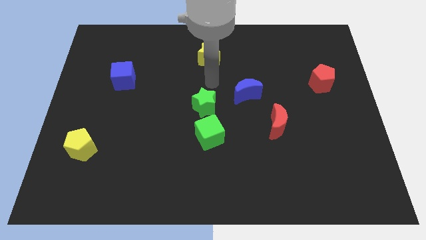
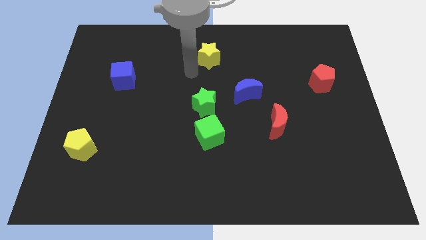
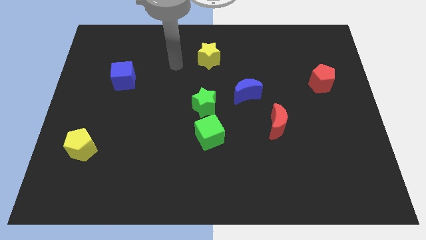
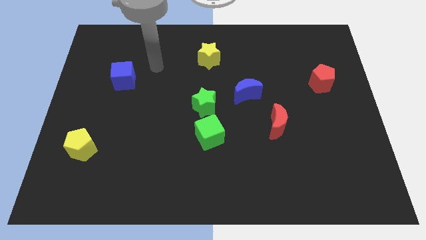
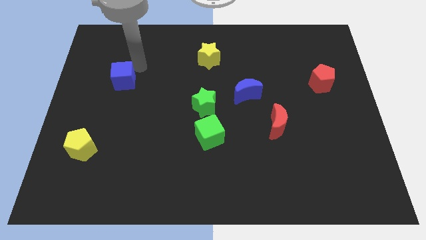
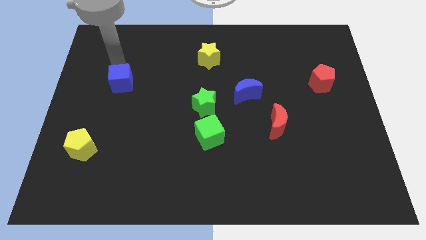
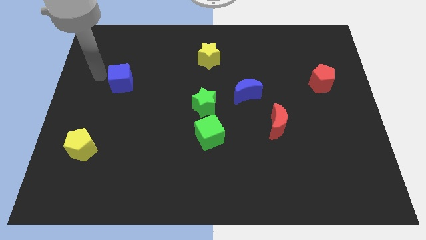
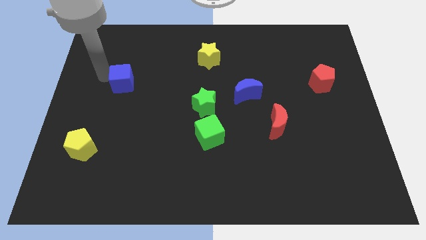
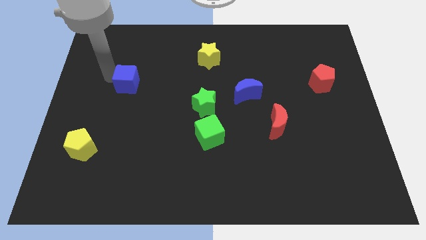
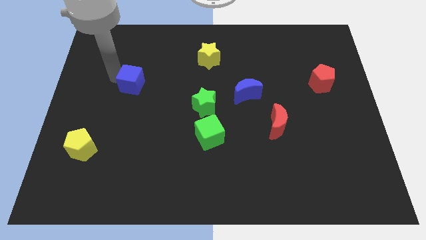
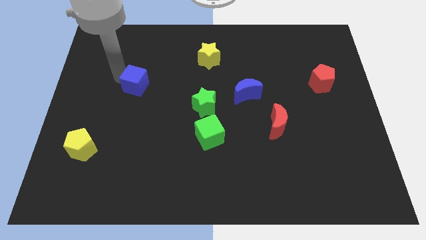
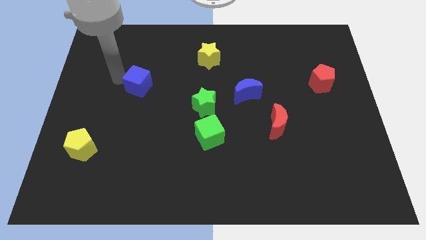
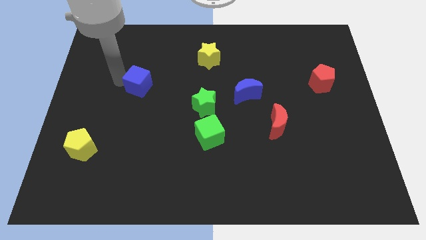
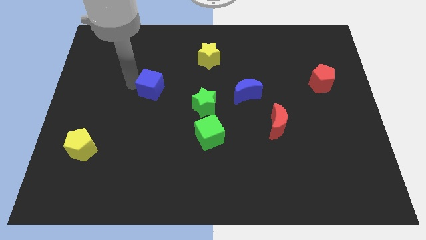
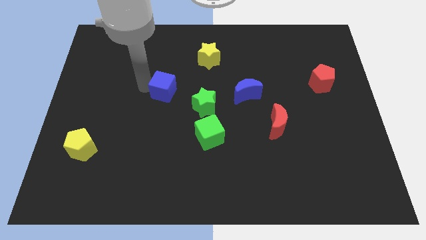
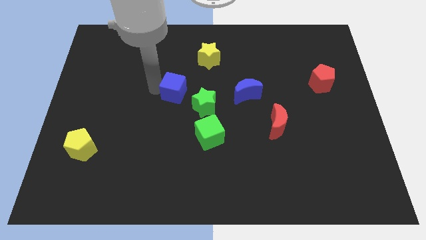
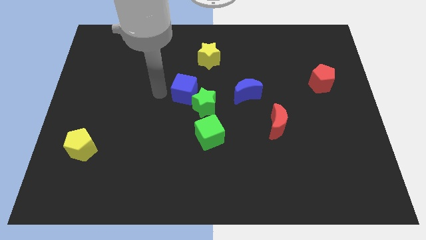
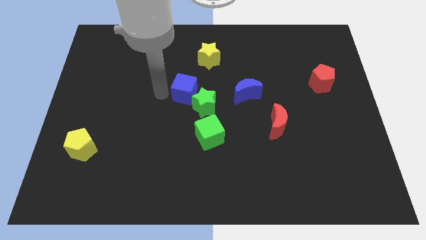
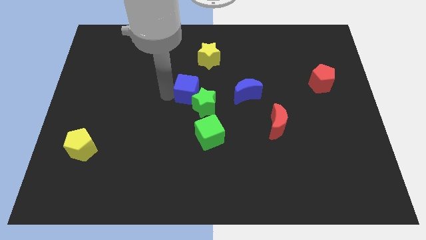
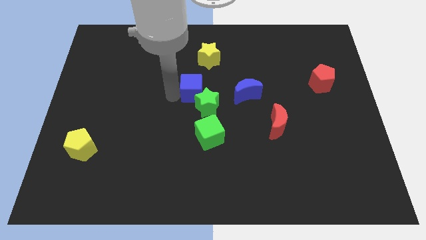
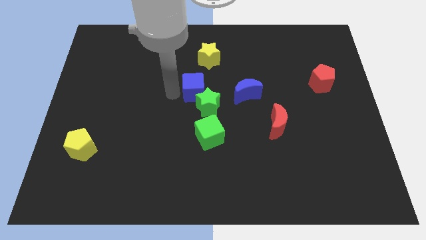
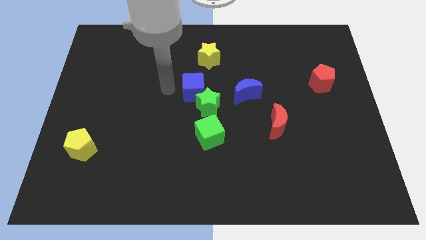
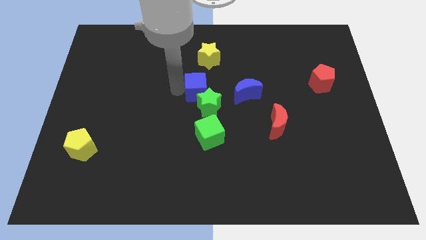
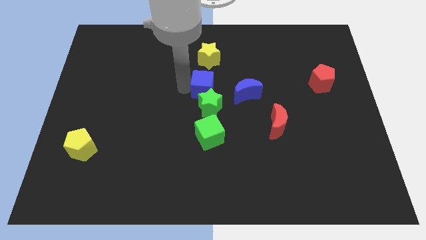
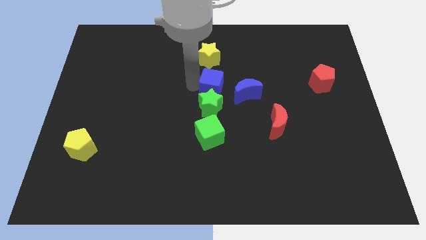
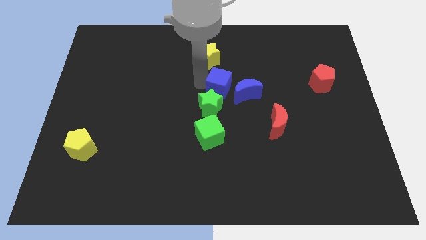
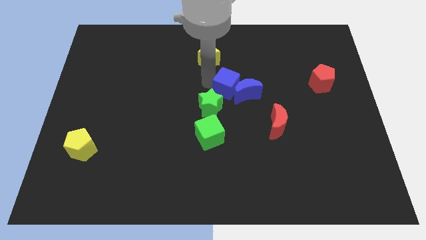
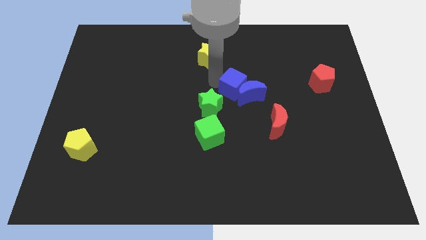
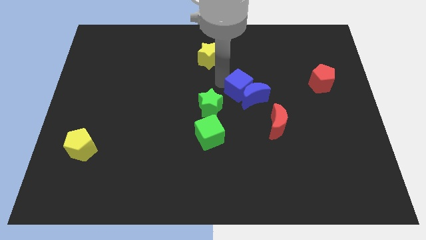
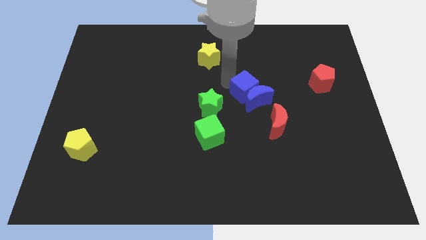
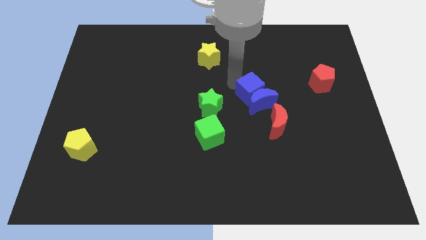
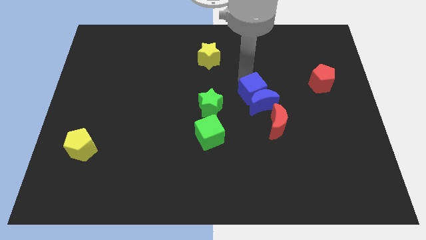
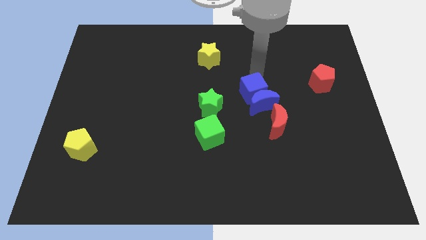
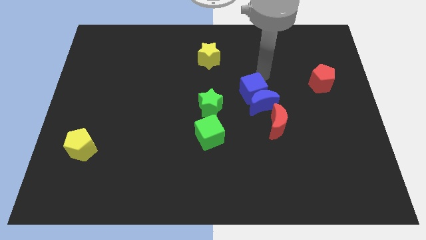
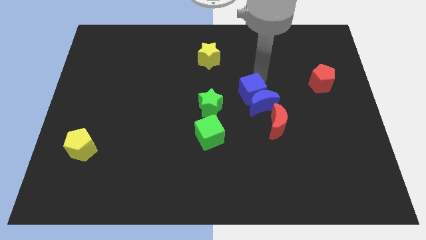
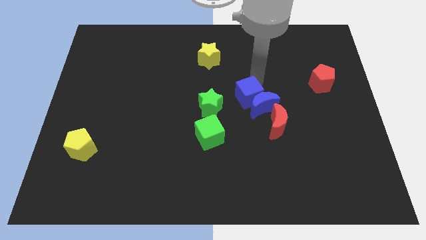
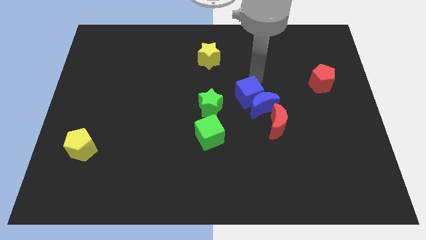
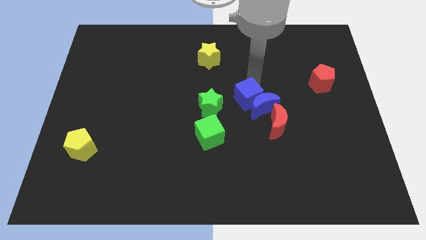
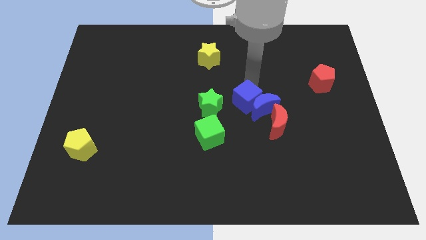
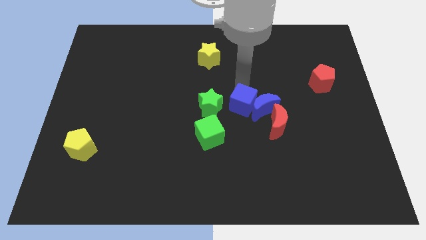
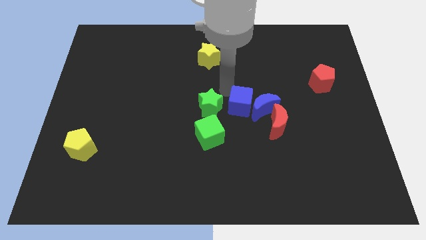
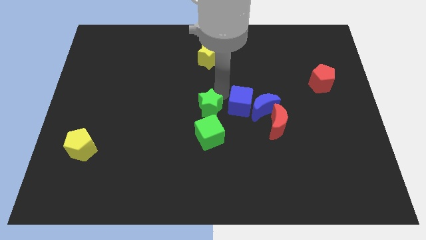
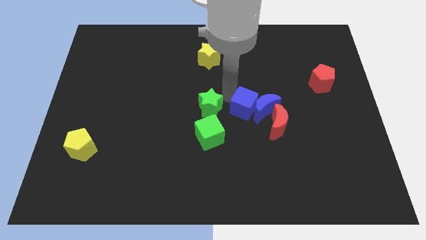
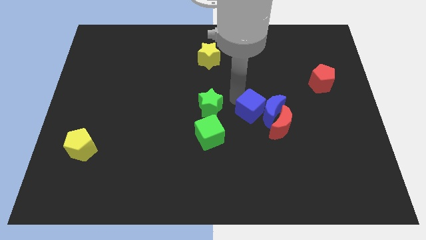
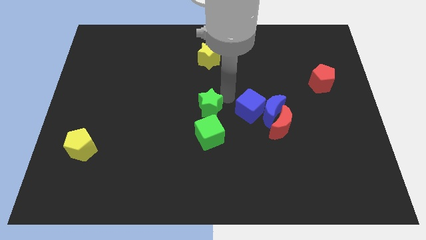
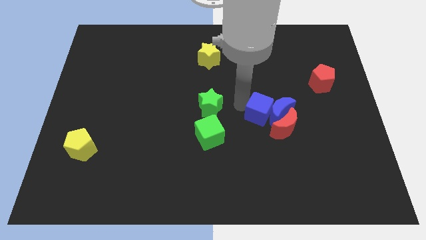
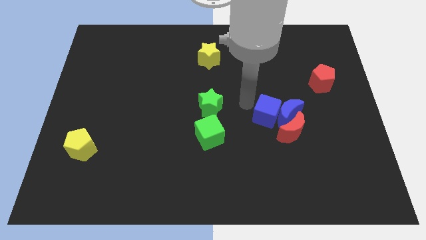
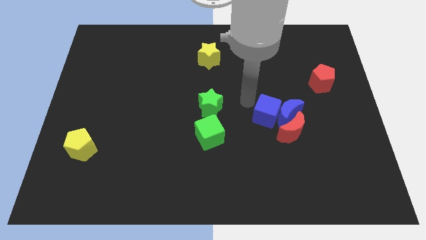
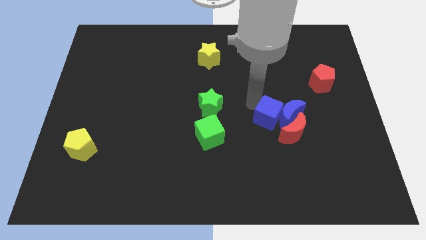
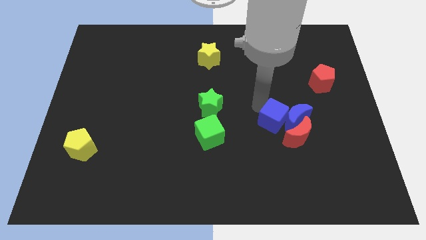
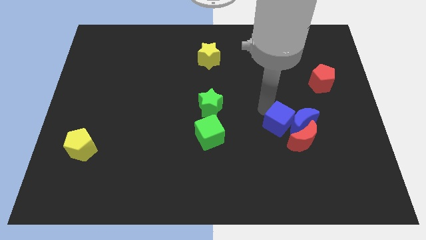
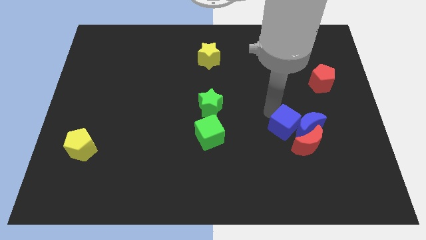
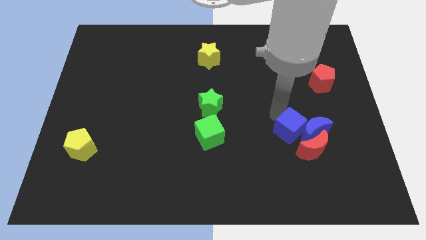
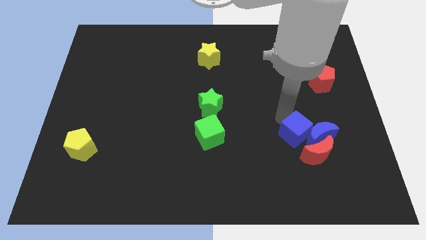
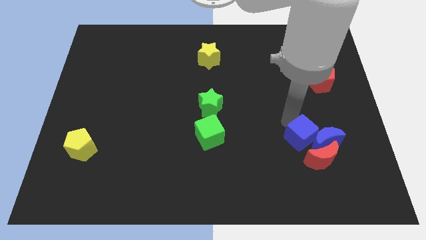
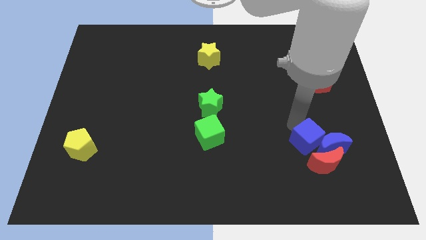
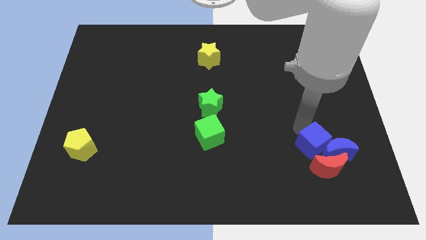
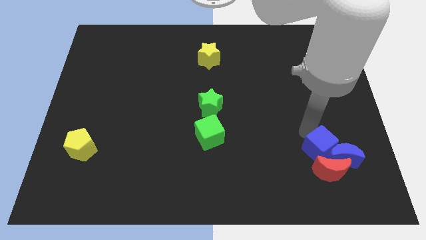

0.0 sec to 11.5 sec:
put the blue cube to the red moon
